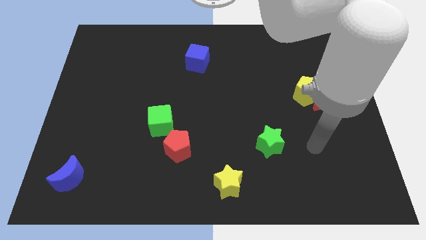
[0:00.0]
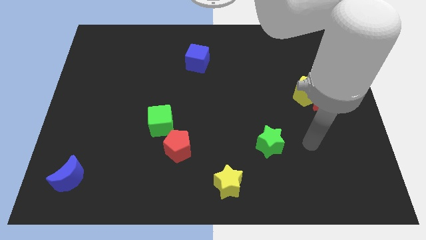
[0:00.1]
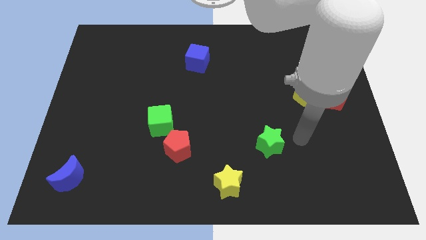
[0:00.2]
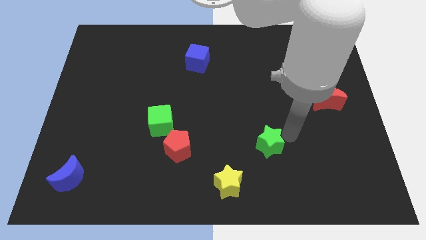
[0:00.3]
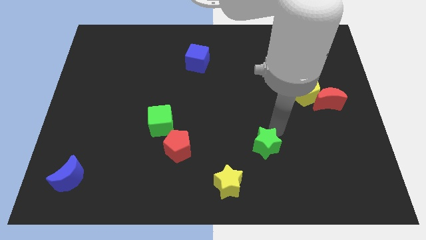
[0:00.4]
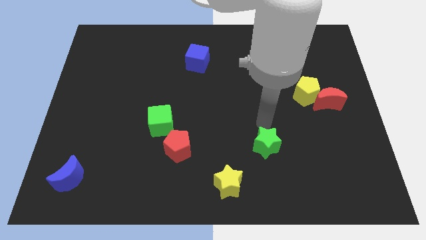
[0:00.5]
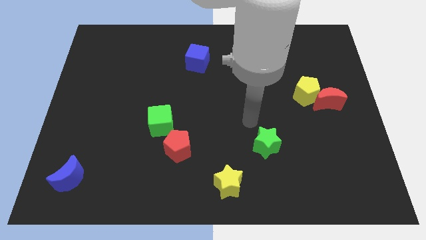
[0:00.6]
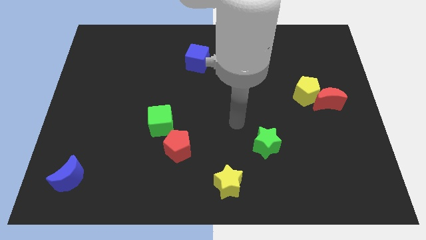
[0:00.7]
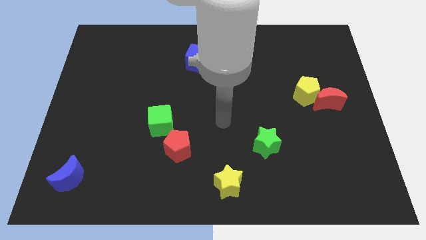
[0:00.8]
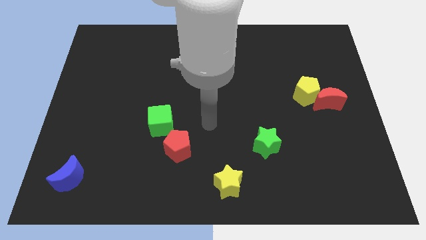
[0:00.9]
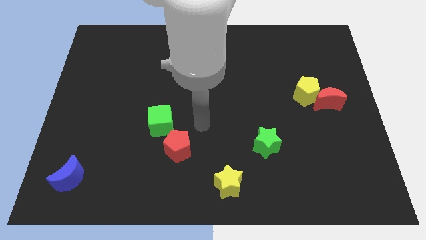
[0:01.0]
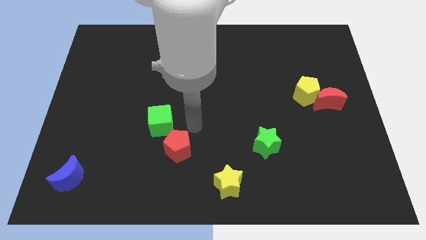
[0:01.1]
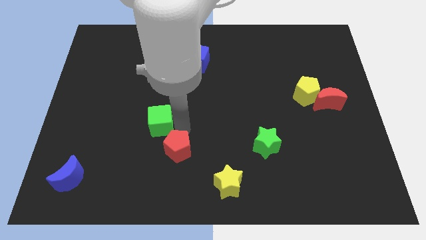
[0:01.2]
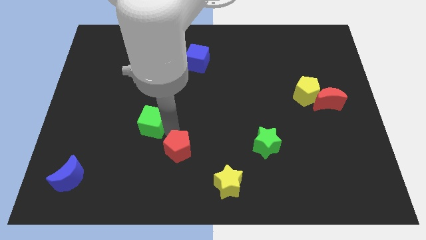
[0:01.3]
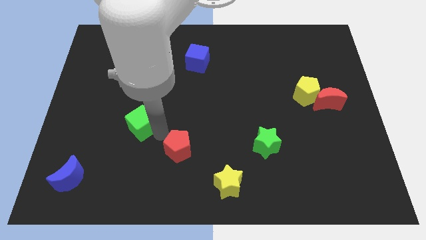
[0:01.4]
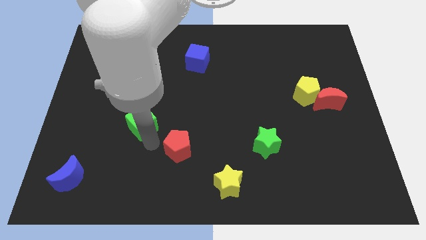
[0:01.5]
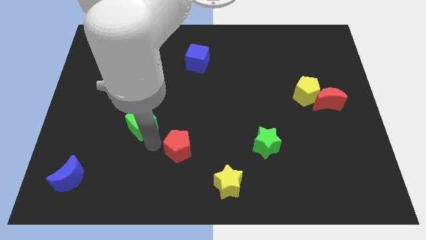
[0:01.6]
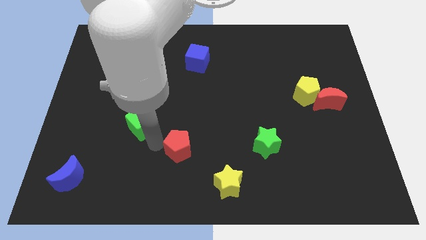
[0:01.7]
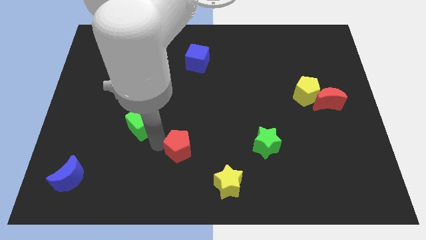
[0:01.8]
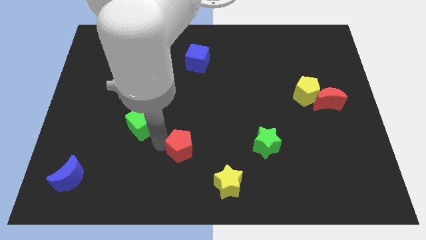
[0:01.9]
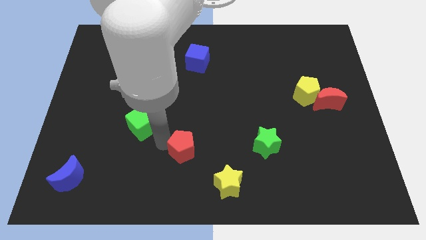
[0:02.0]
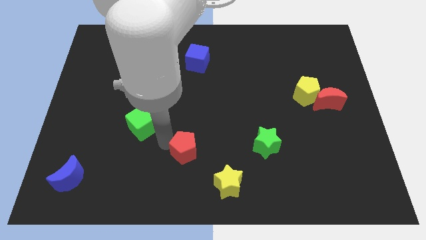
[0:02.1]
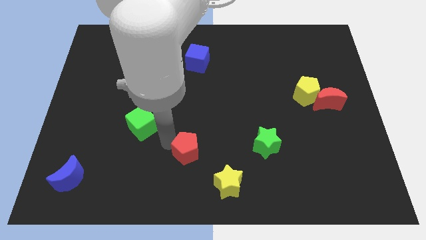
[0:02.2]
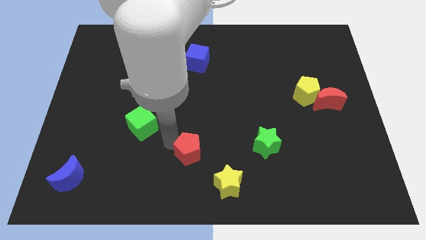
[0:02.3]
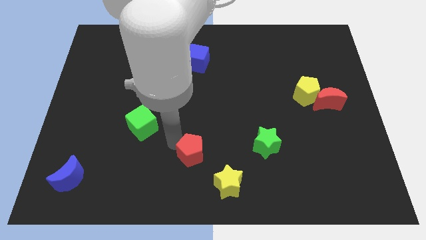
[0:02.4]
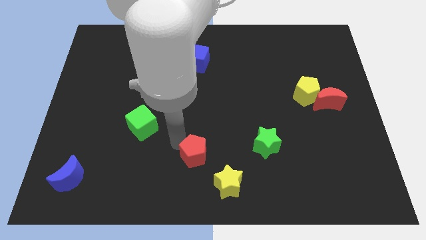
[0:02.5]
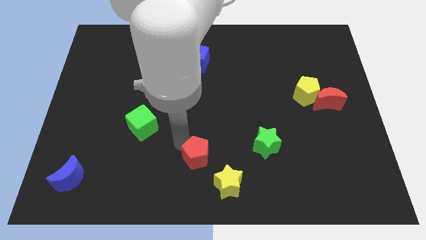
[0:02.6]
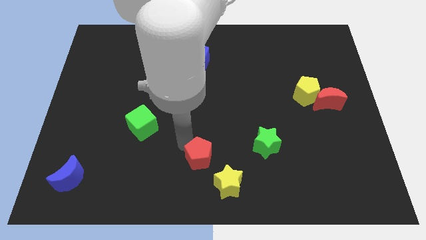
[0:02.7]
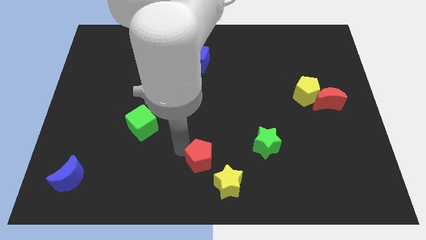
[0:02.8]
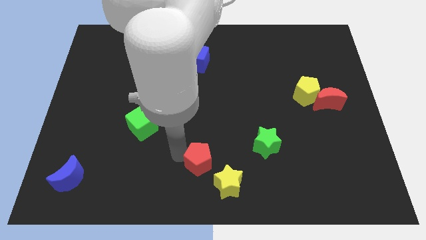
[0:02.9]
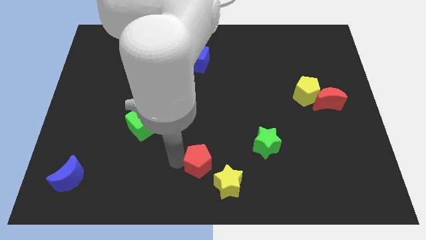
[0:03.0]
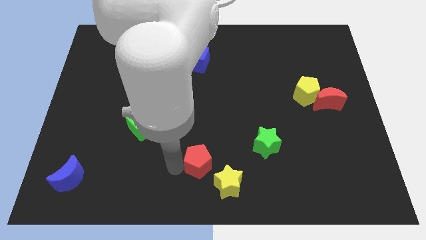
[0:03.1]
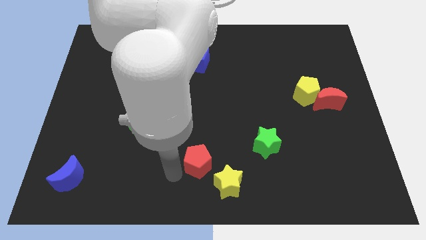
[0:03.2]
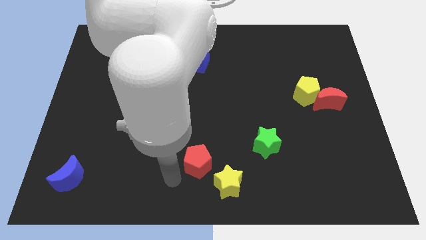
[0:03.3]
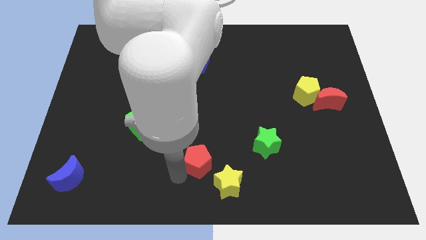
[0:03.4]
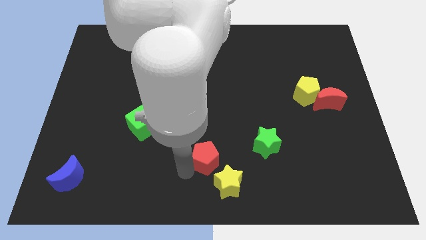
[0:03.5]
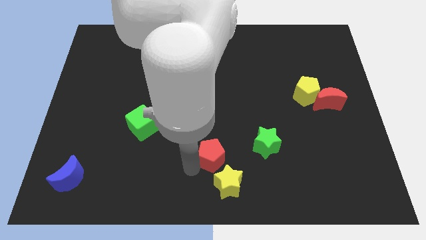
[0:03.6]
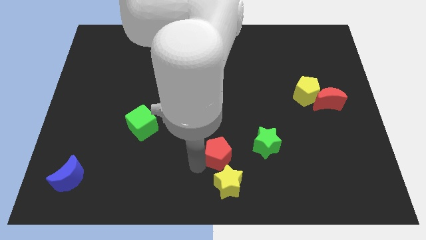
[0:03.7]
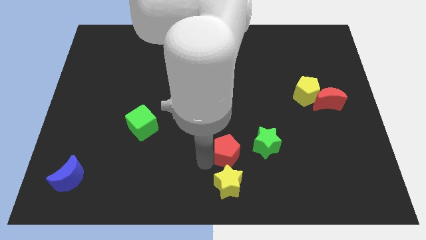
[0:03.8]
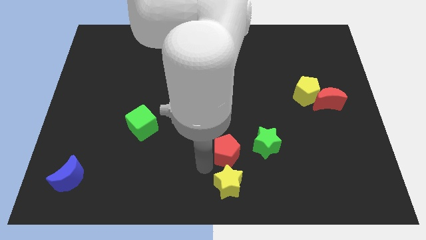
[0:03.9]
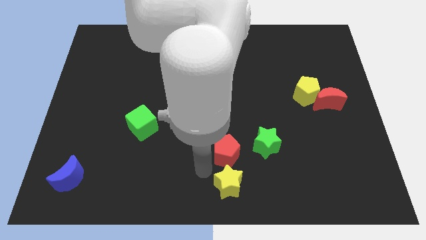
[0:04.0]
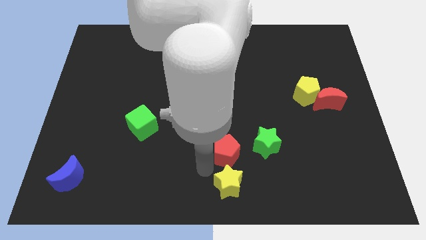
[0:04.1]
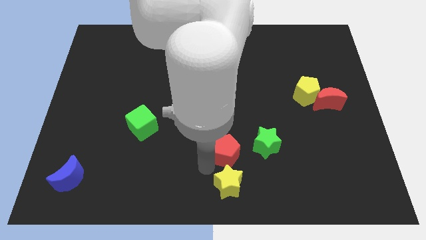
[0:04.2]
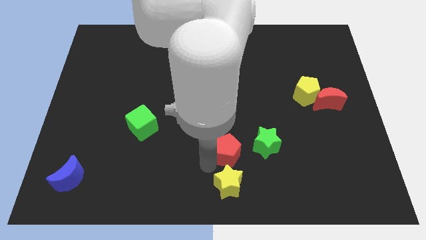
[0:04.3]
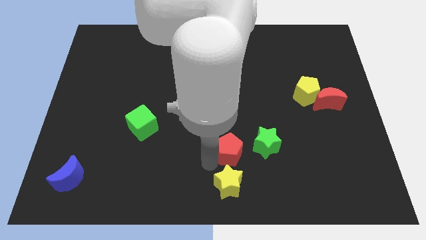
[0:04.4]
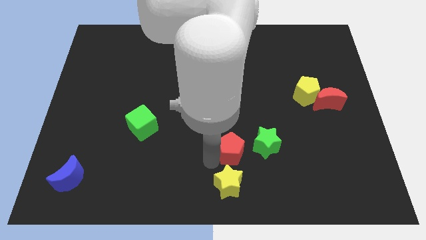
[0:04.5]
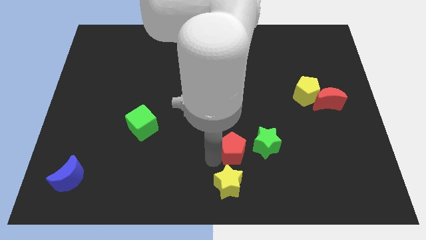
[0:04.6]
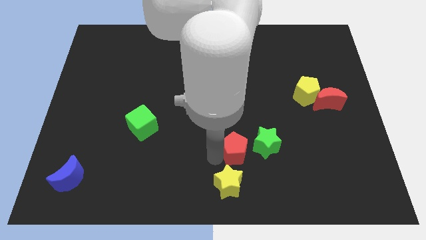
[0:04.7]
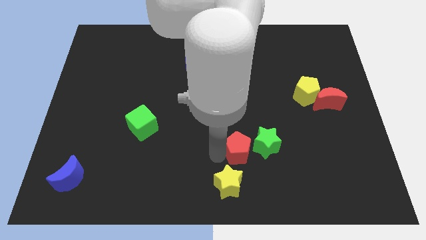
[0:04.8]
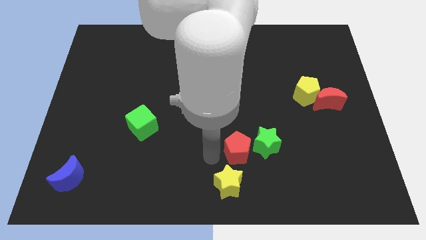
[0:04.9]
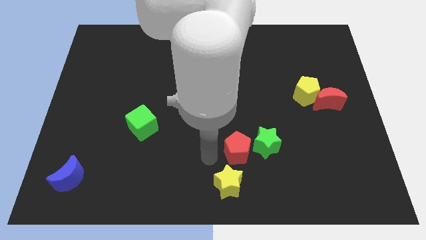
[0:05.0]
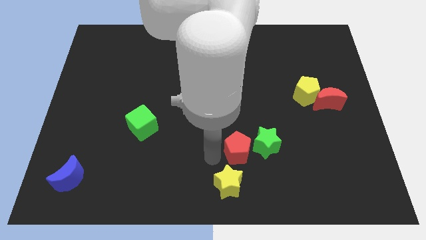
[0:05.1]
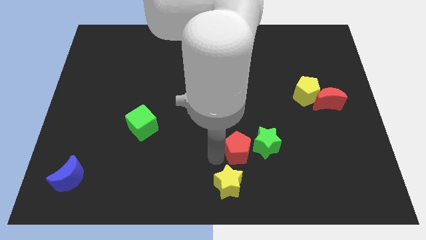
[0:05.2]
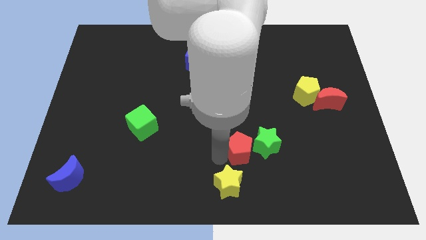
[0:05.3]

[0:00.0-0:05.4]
slide the red pentagon to the green star

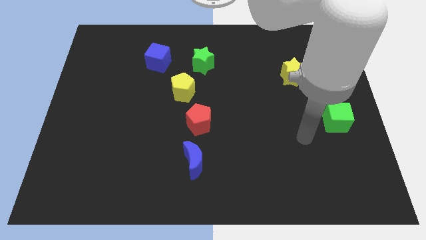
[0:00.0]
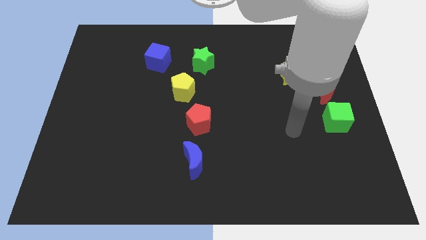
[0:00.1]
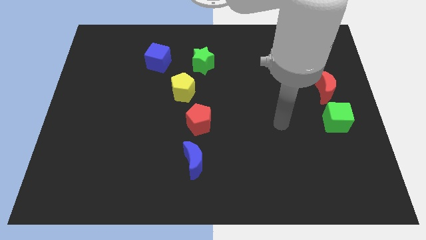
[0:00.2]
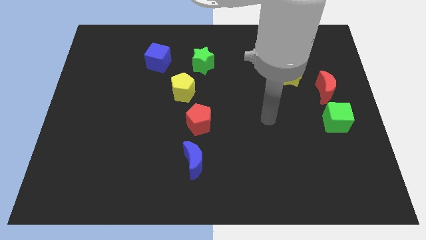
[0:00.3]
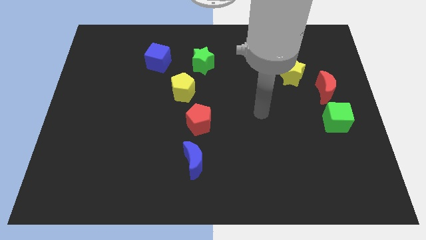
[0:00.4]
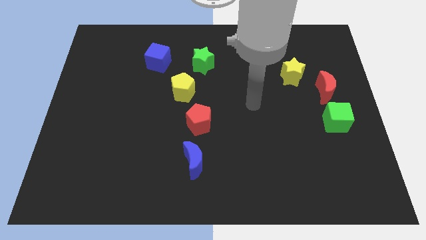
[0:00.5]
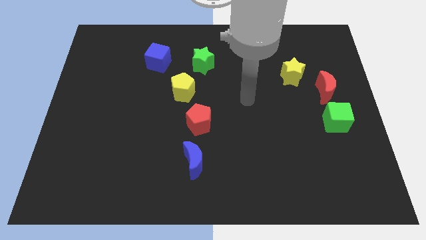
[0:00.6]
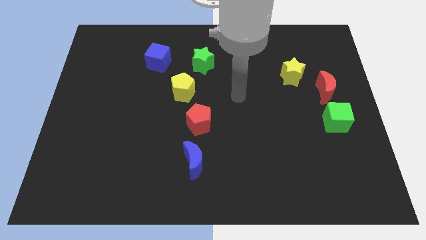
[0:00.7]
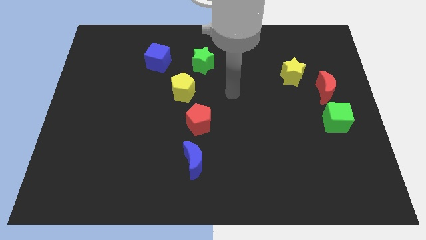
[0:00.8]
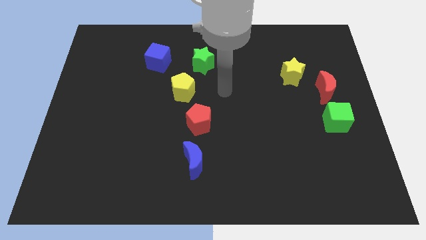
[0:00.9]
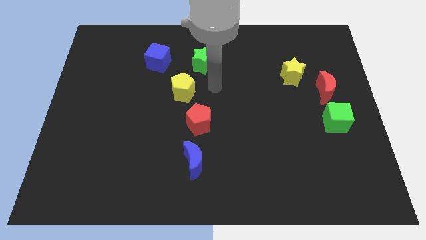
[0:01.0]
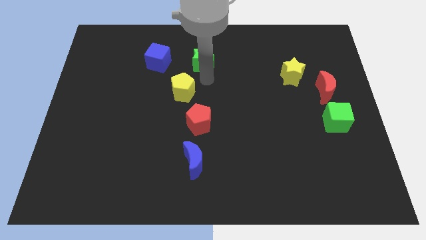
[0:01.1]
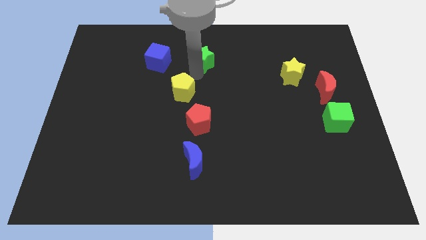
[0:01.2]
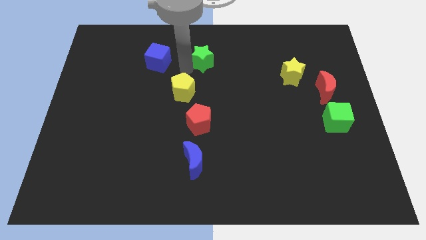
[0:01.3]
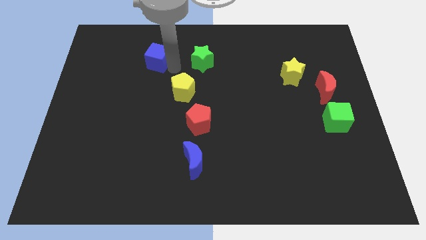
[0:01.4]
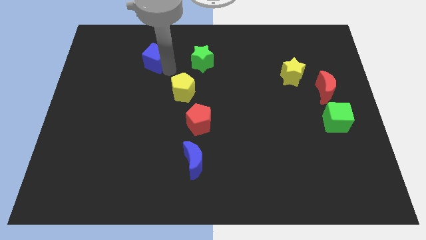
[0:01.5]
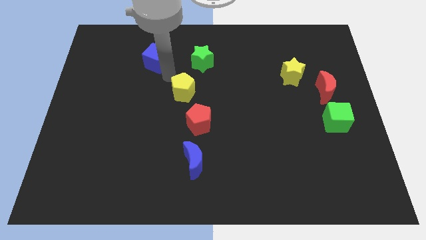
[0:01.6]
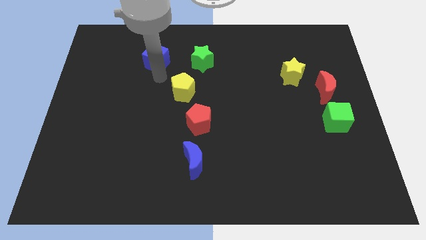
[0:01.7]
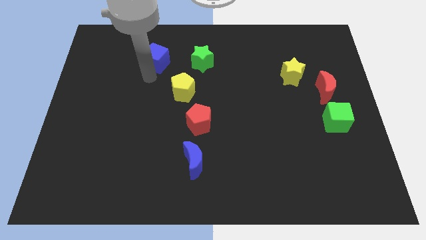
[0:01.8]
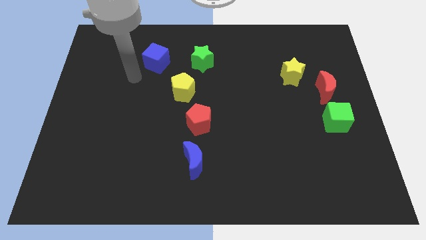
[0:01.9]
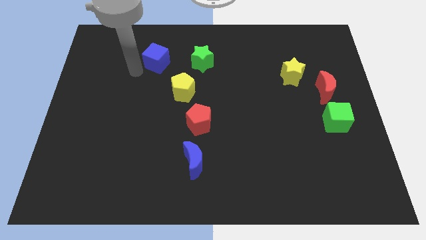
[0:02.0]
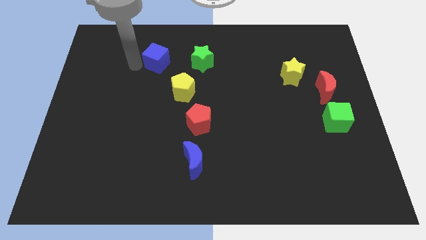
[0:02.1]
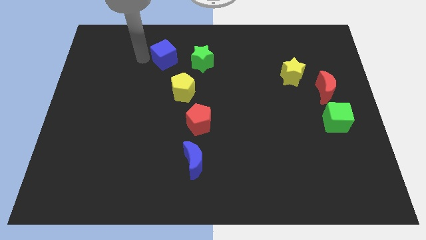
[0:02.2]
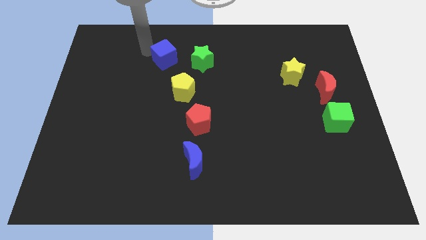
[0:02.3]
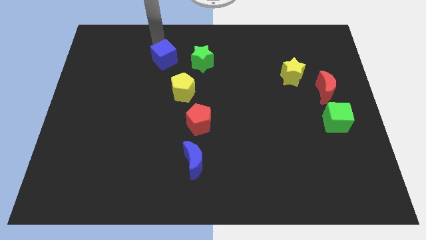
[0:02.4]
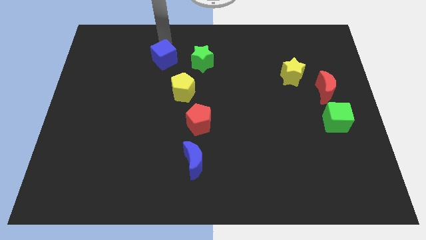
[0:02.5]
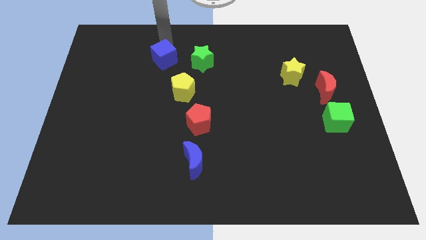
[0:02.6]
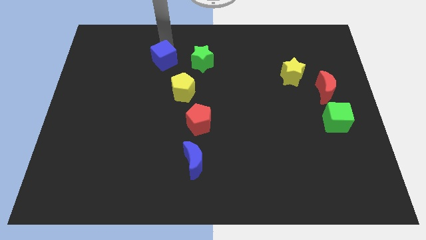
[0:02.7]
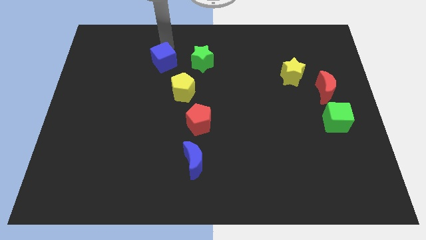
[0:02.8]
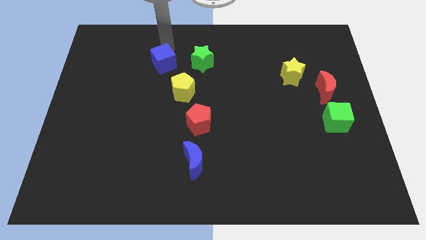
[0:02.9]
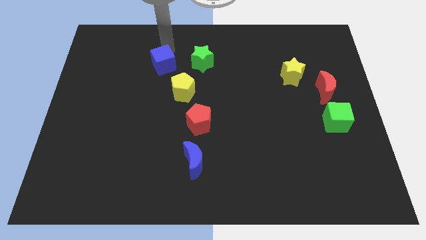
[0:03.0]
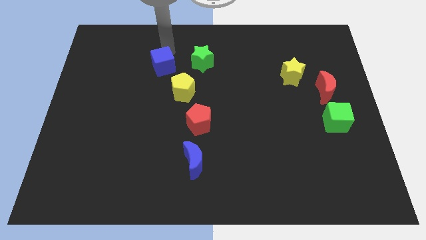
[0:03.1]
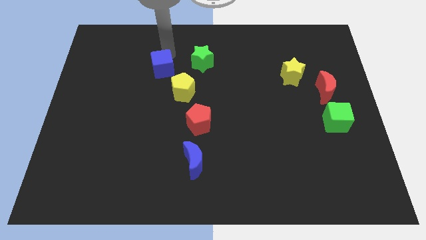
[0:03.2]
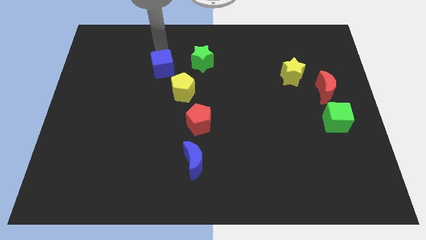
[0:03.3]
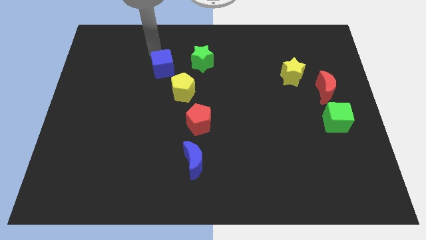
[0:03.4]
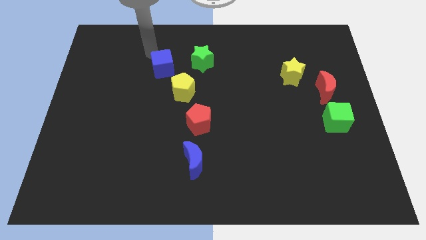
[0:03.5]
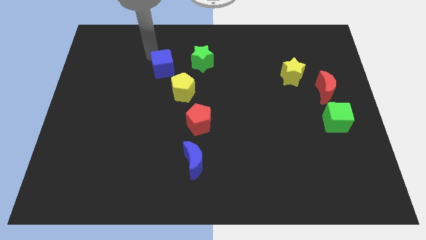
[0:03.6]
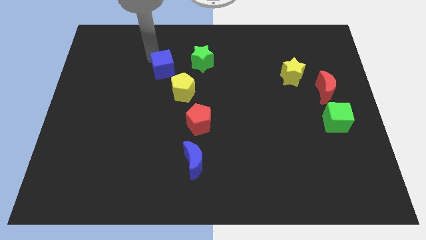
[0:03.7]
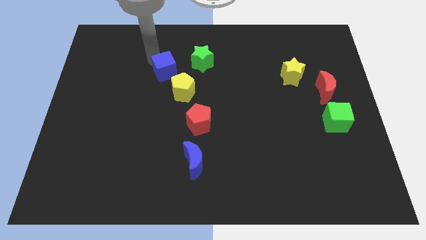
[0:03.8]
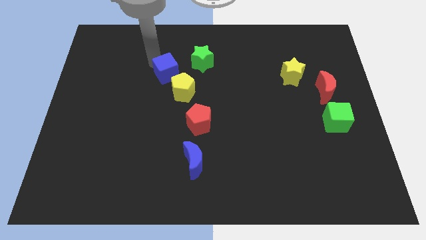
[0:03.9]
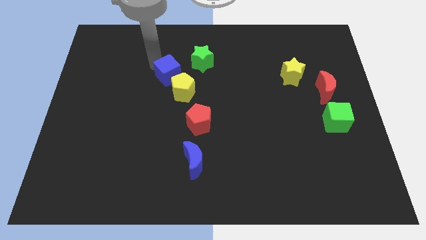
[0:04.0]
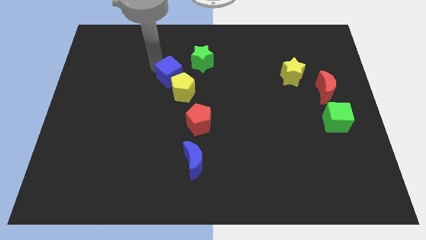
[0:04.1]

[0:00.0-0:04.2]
put the blue cube close to the yellow pentagon
